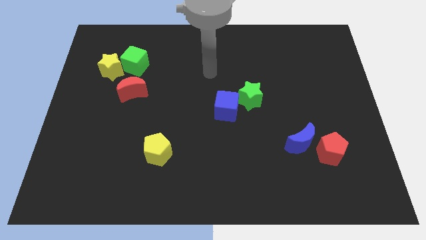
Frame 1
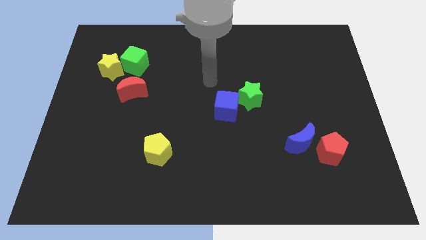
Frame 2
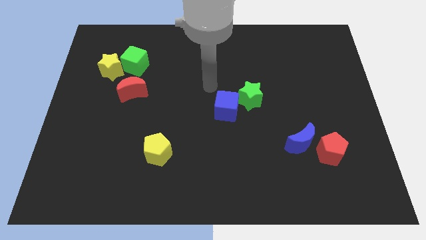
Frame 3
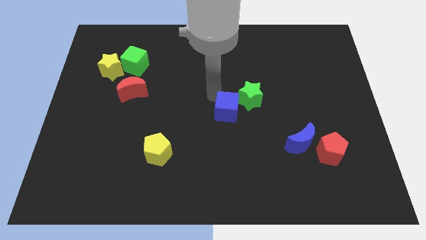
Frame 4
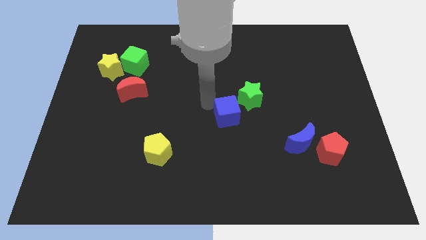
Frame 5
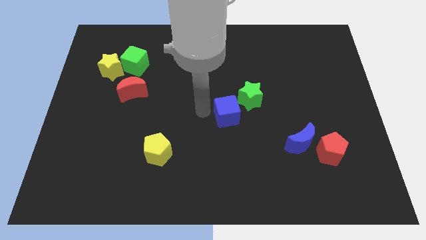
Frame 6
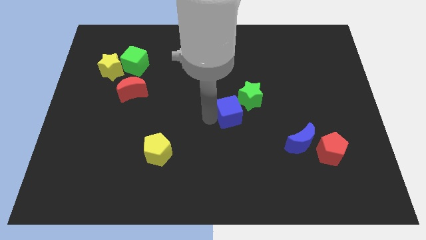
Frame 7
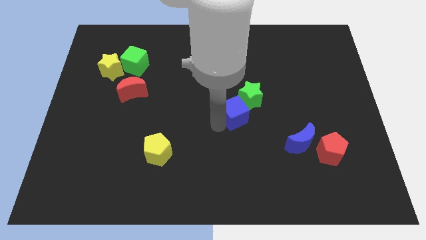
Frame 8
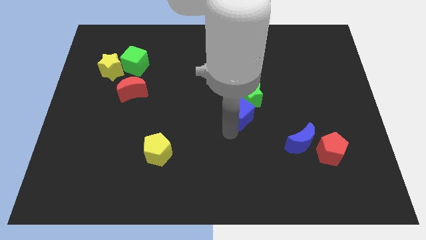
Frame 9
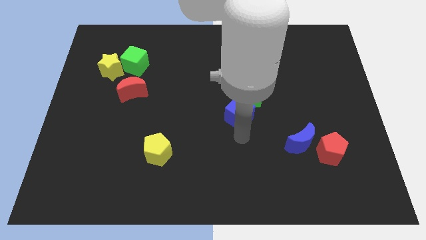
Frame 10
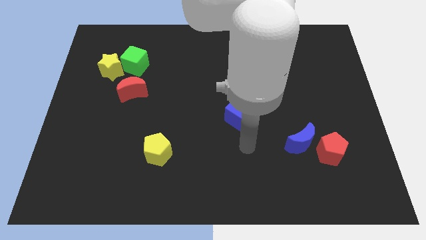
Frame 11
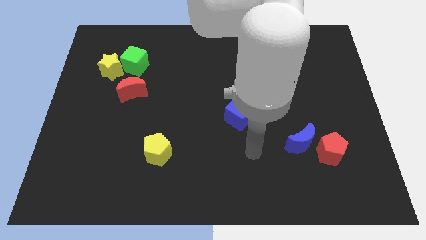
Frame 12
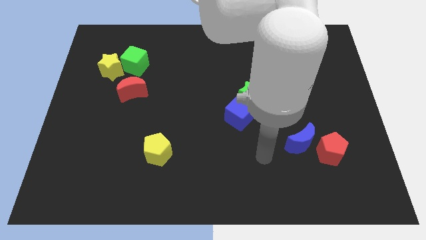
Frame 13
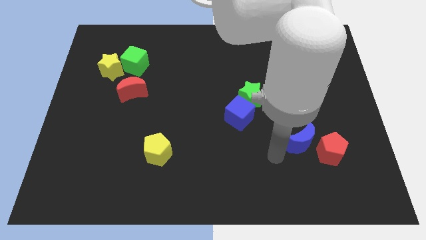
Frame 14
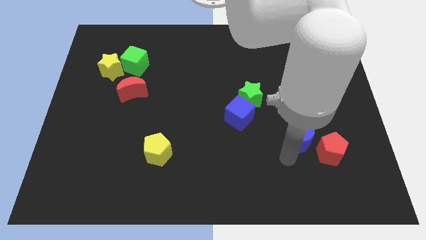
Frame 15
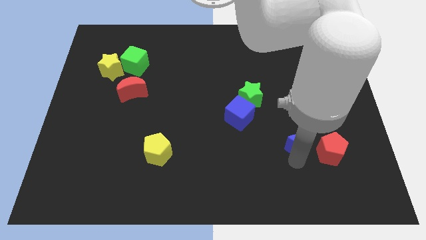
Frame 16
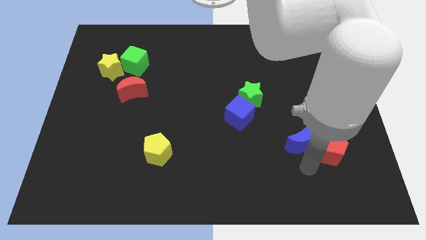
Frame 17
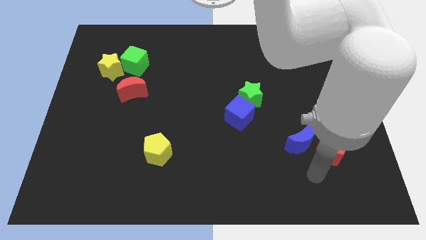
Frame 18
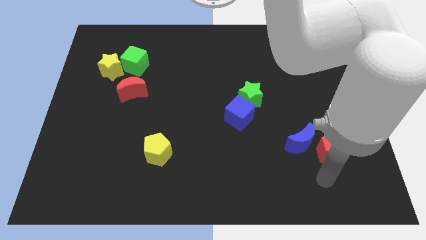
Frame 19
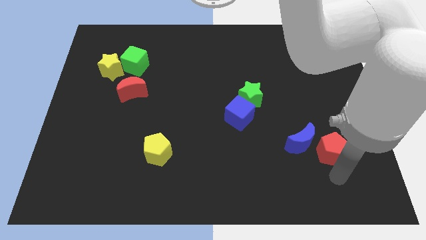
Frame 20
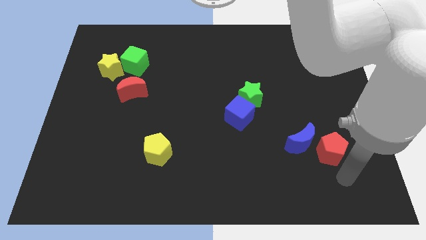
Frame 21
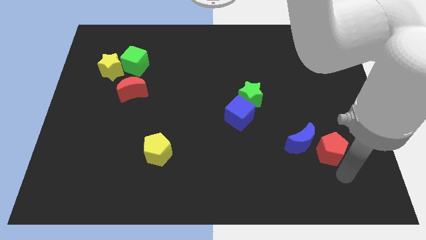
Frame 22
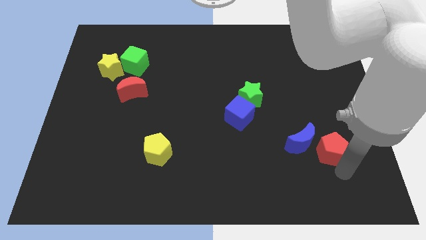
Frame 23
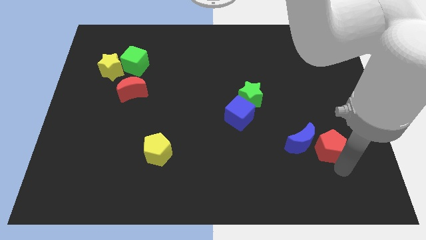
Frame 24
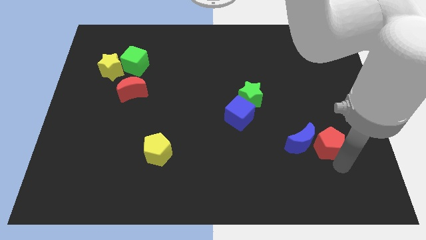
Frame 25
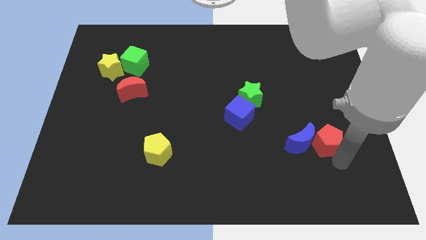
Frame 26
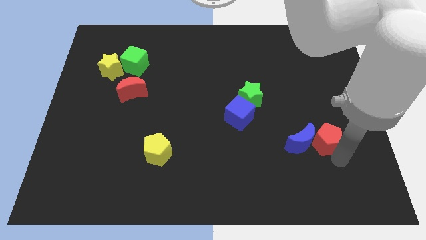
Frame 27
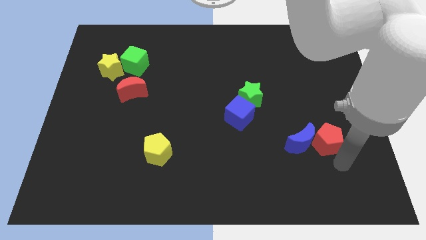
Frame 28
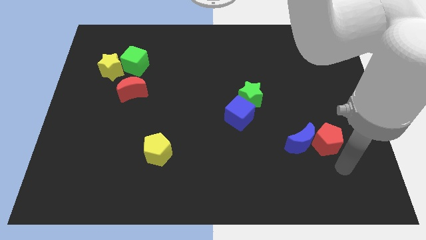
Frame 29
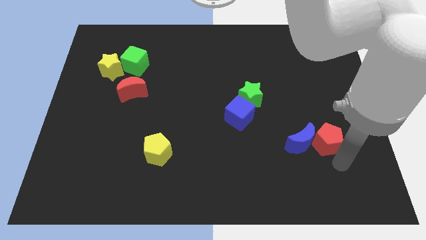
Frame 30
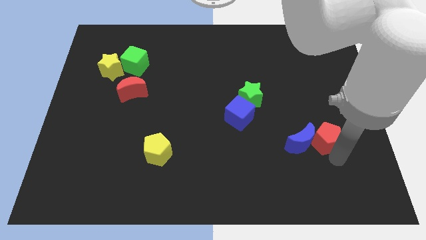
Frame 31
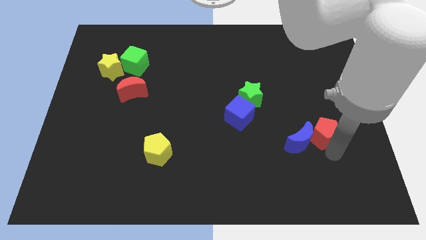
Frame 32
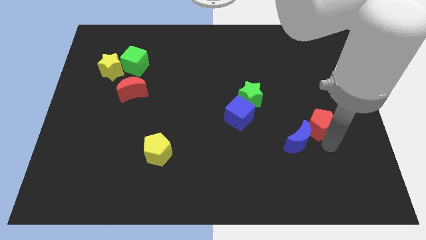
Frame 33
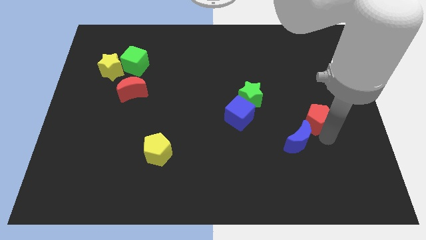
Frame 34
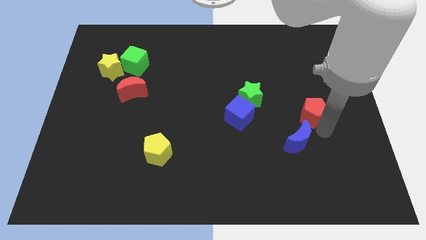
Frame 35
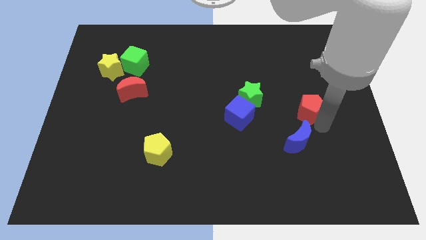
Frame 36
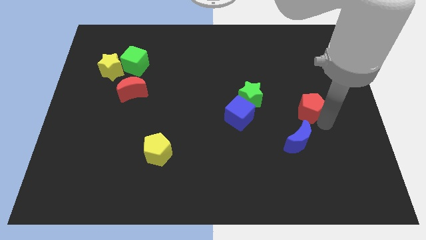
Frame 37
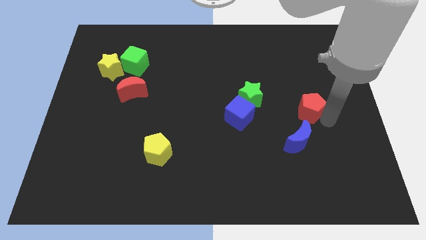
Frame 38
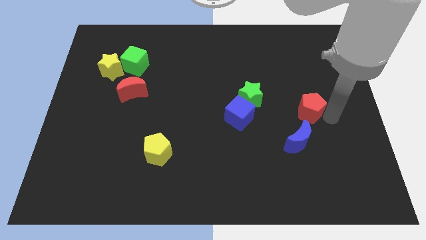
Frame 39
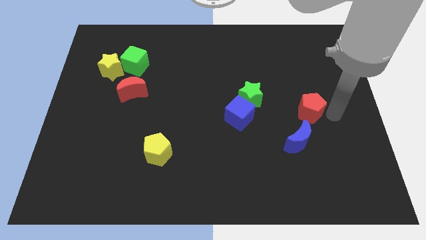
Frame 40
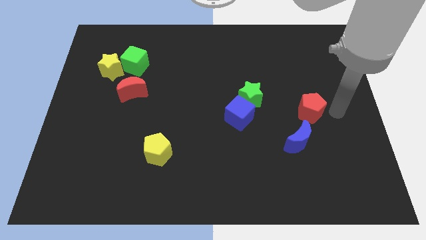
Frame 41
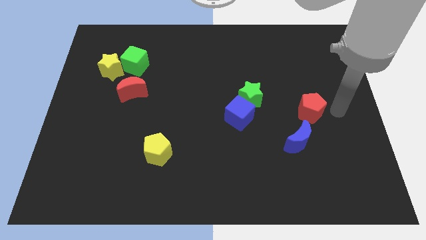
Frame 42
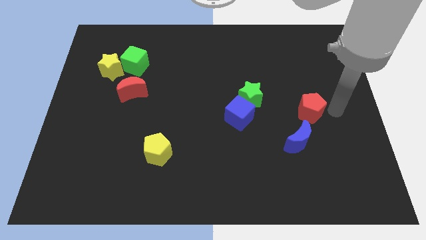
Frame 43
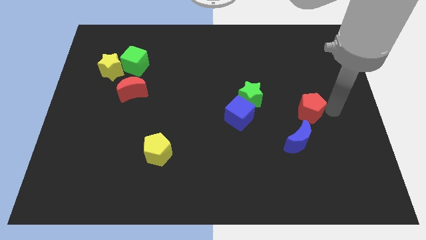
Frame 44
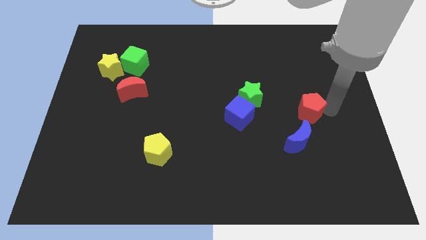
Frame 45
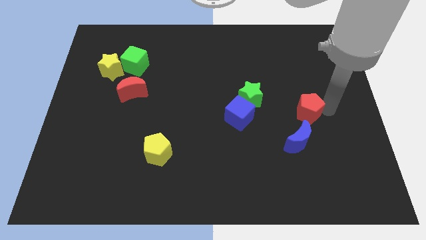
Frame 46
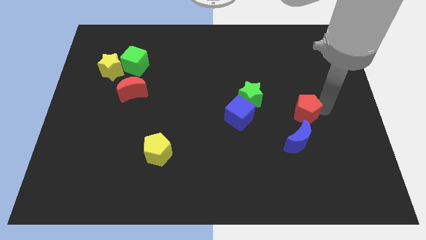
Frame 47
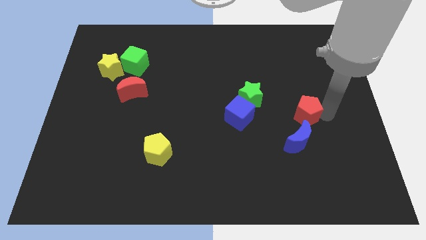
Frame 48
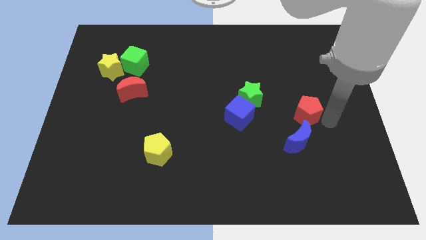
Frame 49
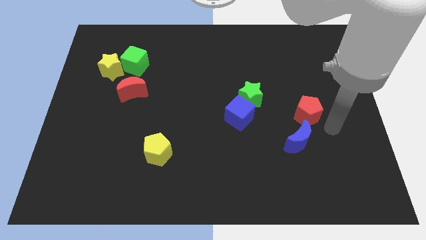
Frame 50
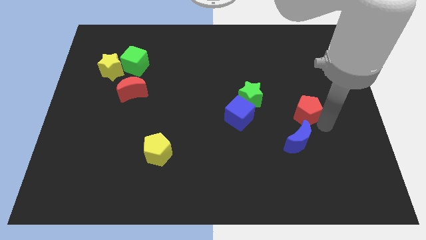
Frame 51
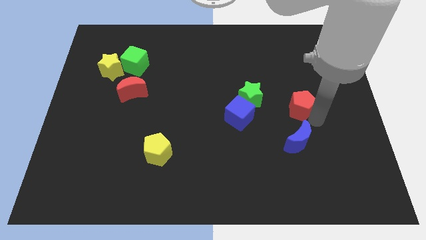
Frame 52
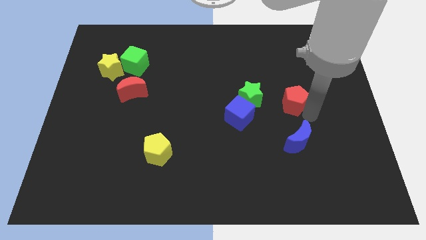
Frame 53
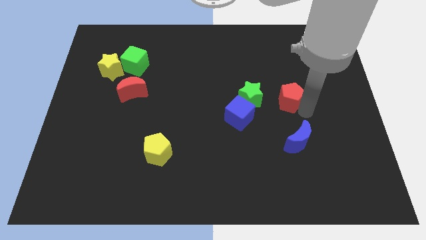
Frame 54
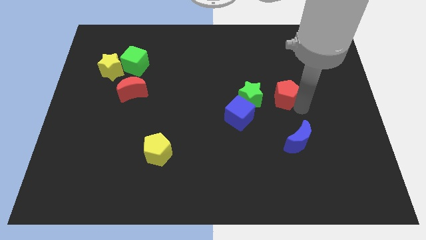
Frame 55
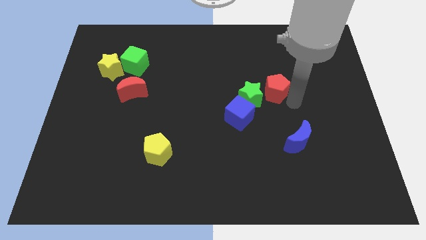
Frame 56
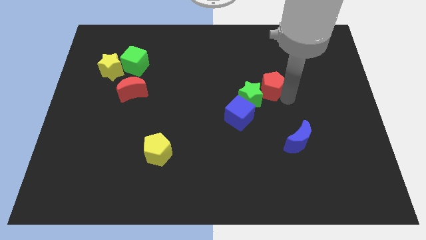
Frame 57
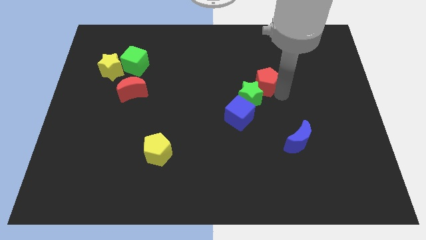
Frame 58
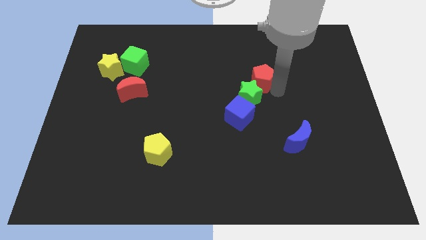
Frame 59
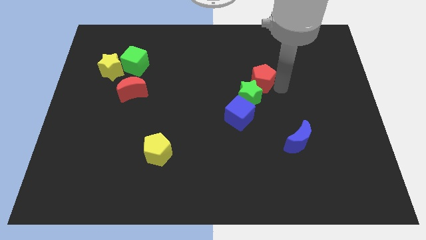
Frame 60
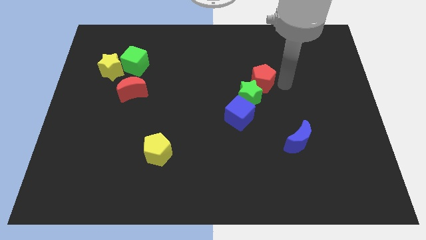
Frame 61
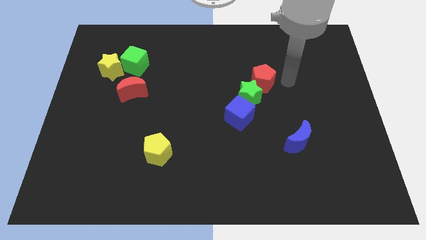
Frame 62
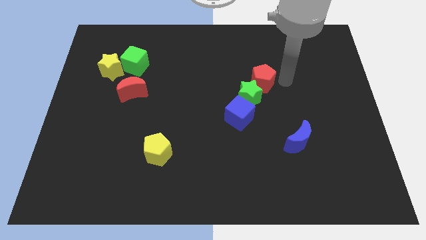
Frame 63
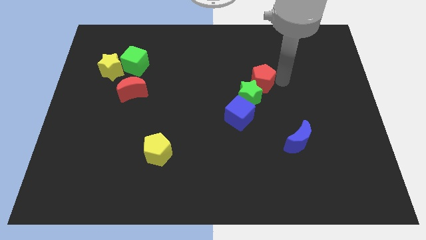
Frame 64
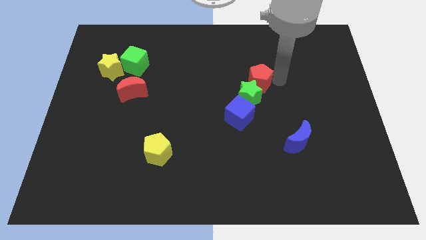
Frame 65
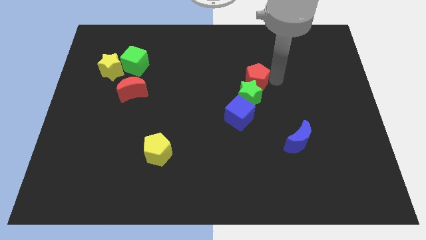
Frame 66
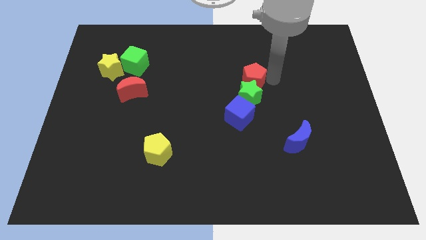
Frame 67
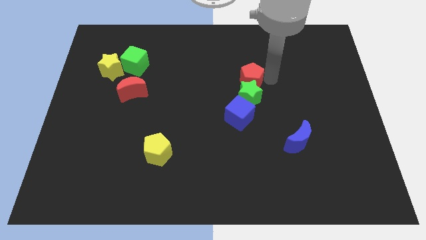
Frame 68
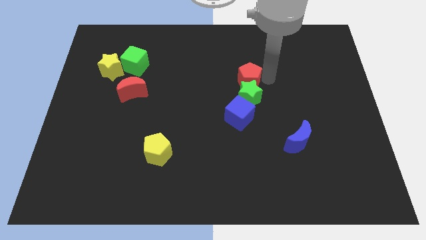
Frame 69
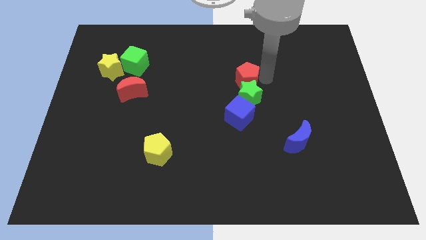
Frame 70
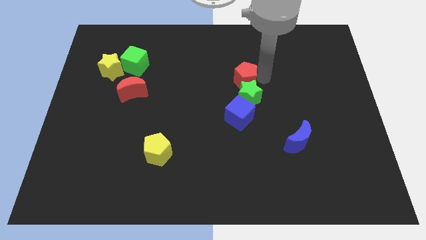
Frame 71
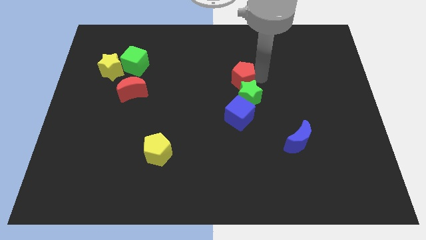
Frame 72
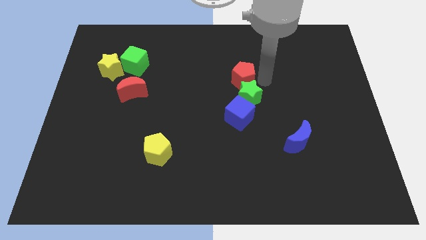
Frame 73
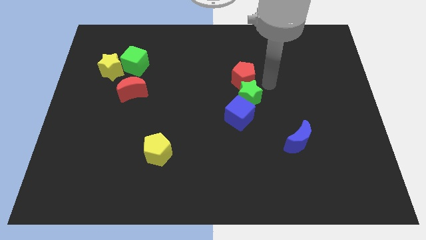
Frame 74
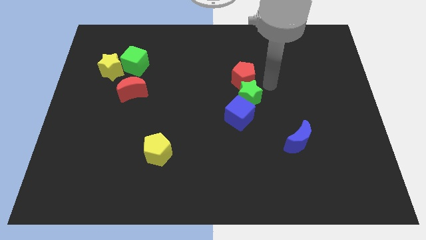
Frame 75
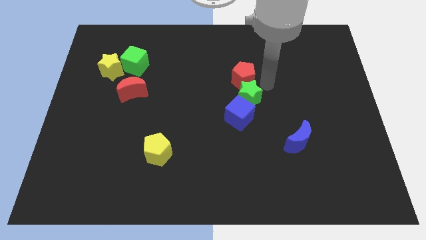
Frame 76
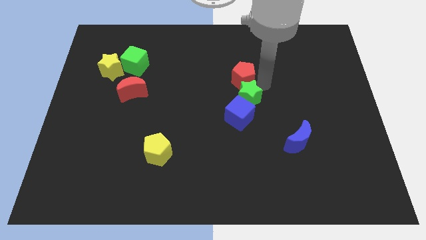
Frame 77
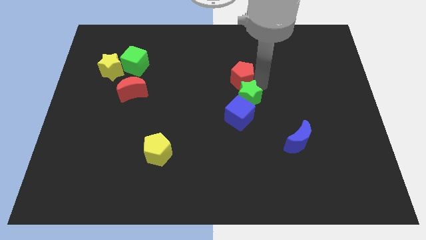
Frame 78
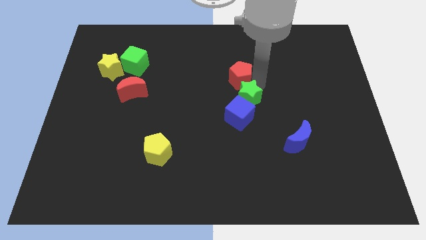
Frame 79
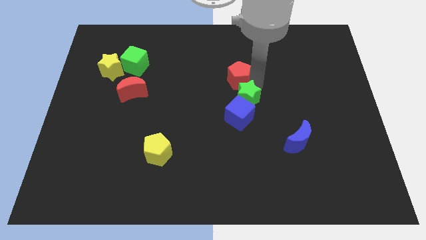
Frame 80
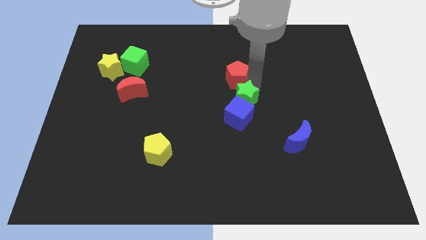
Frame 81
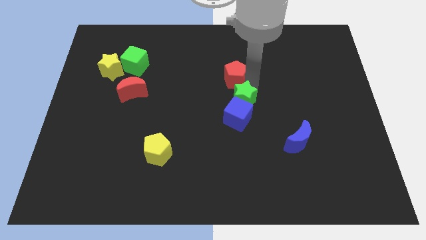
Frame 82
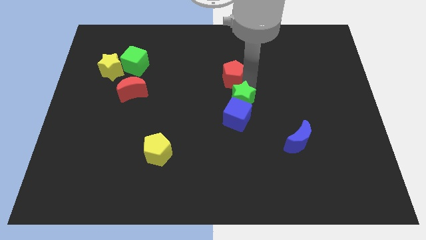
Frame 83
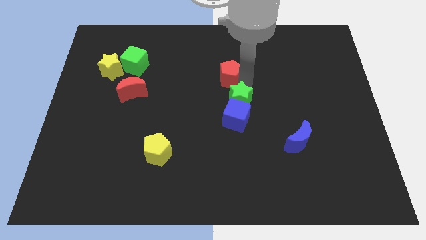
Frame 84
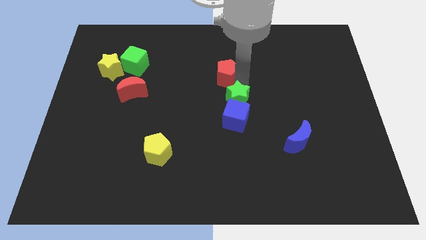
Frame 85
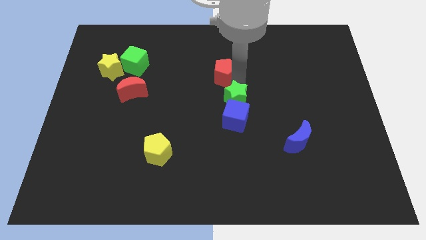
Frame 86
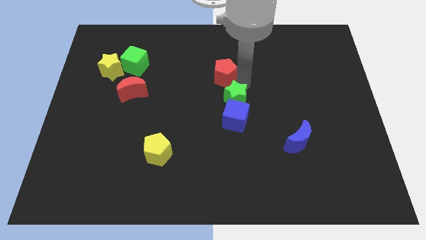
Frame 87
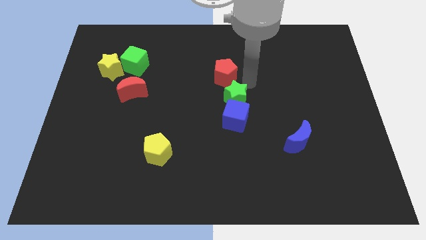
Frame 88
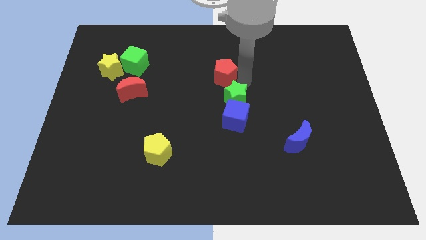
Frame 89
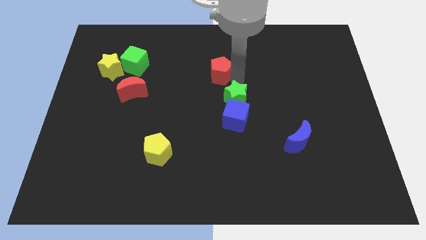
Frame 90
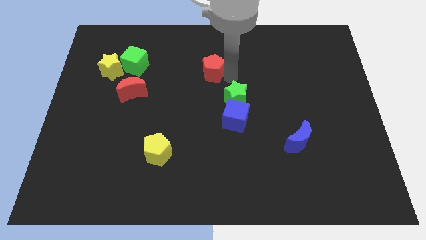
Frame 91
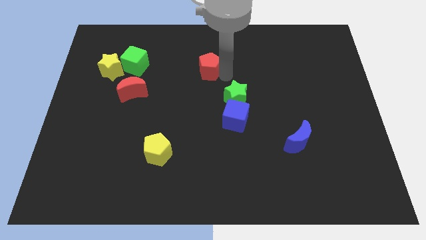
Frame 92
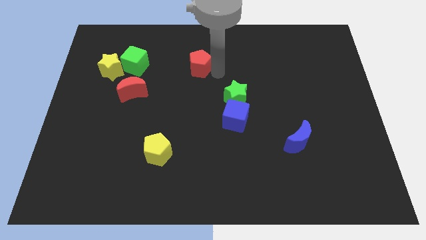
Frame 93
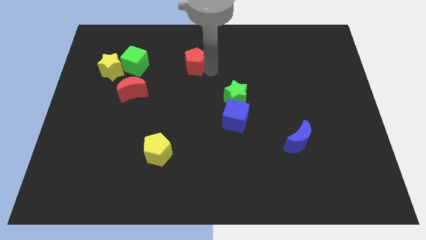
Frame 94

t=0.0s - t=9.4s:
slide the red pentagon to the right of the green cube
